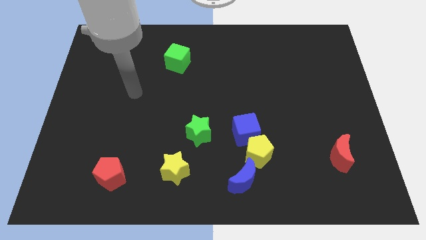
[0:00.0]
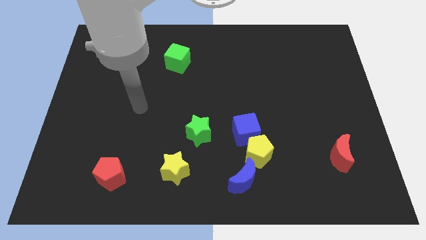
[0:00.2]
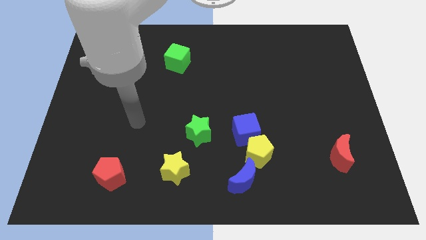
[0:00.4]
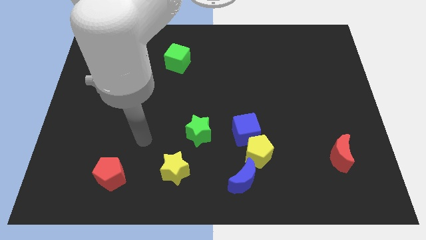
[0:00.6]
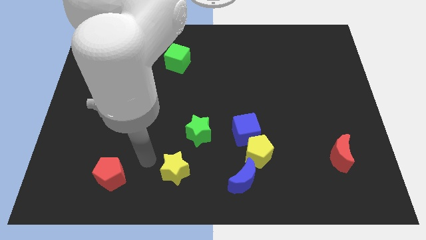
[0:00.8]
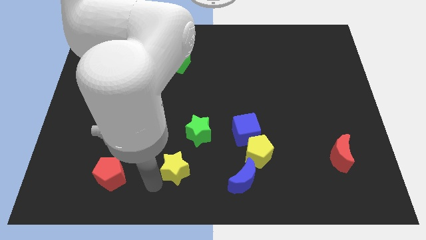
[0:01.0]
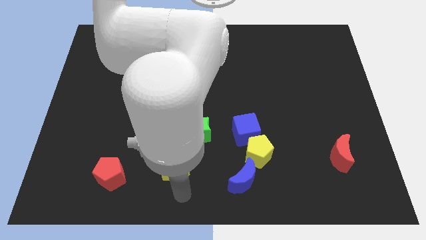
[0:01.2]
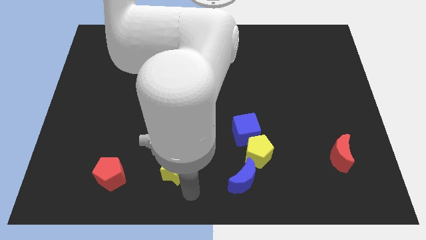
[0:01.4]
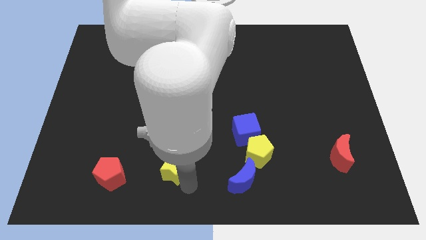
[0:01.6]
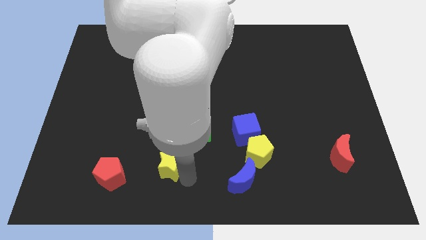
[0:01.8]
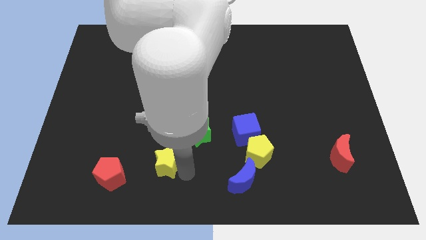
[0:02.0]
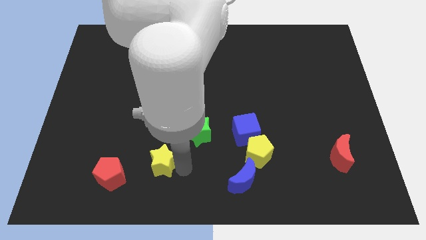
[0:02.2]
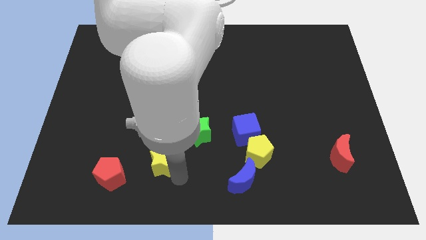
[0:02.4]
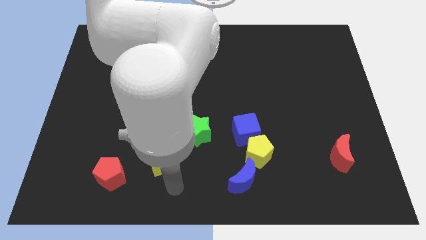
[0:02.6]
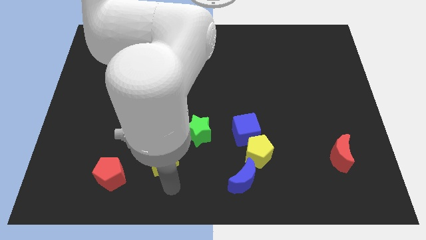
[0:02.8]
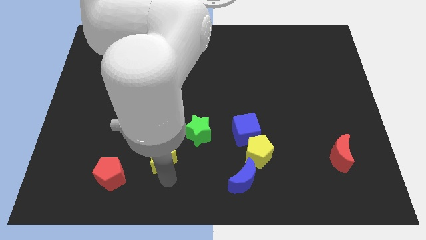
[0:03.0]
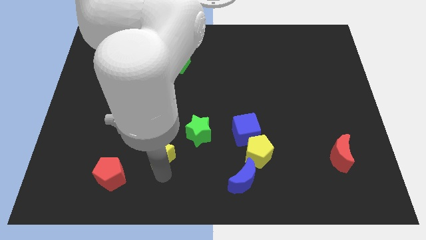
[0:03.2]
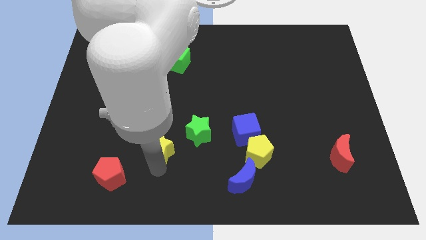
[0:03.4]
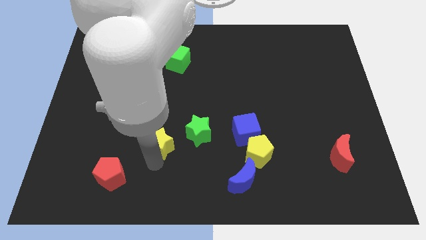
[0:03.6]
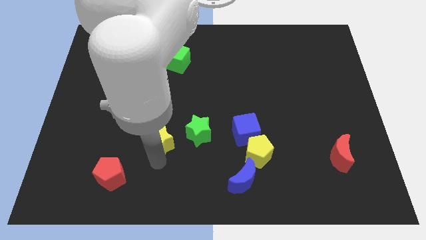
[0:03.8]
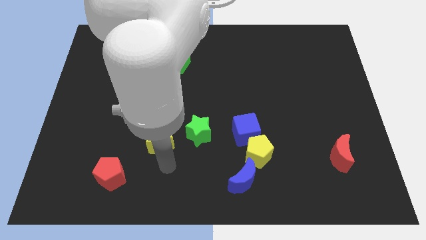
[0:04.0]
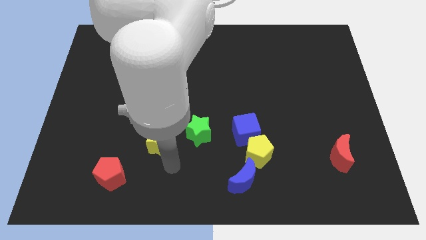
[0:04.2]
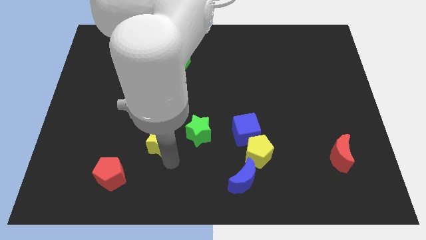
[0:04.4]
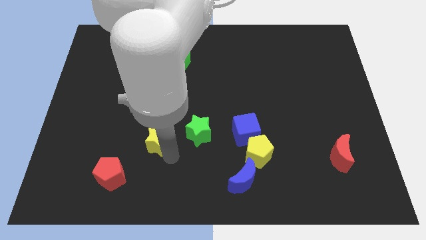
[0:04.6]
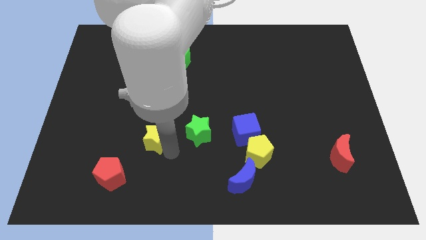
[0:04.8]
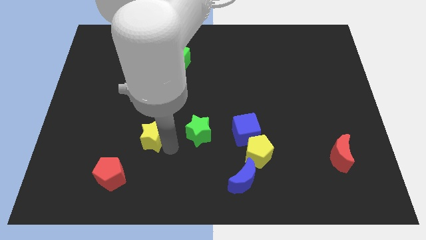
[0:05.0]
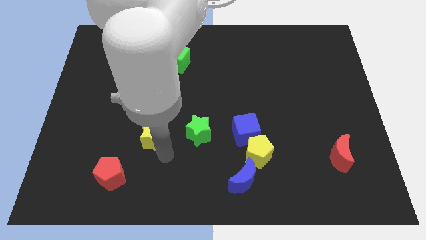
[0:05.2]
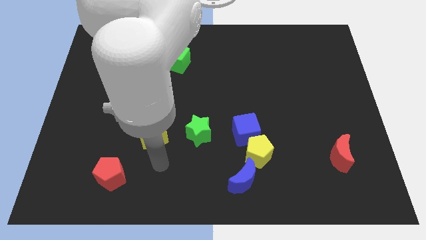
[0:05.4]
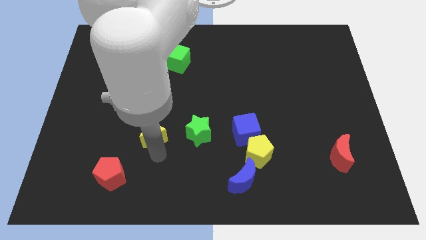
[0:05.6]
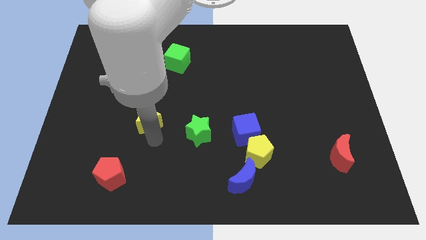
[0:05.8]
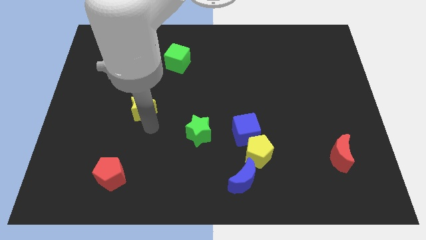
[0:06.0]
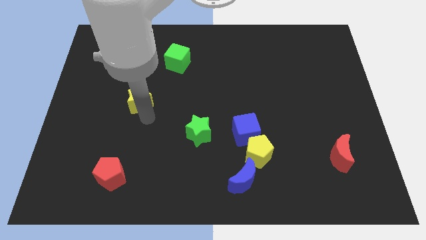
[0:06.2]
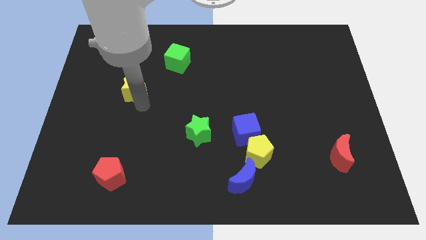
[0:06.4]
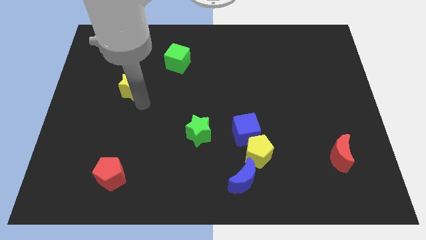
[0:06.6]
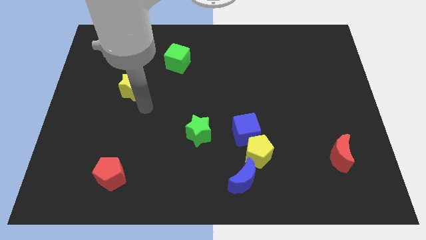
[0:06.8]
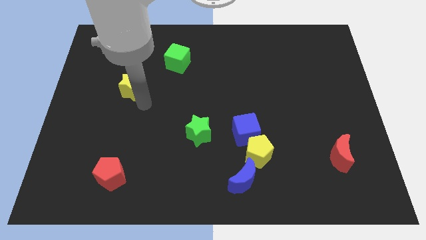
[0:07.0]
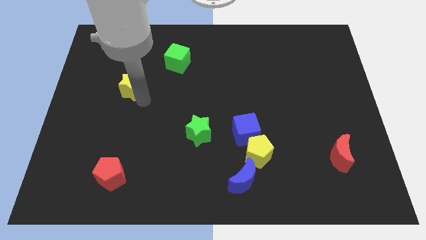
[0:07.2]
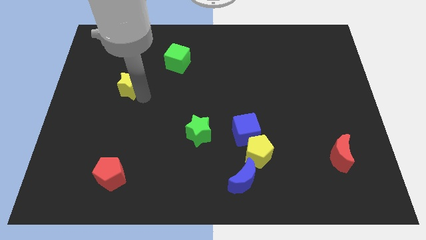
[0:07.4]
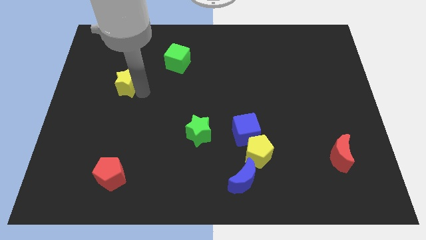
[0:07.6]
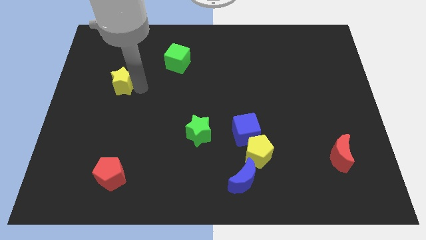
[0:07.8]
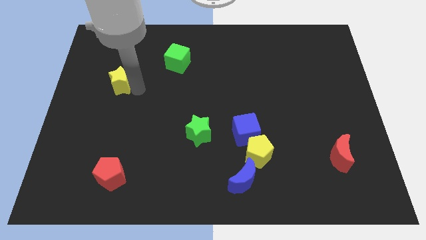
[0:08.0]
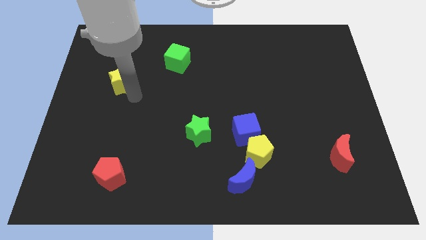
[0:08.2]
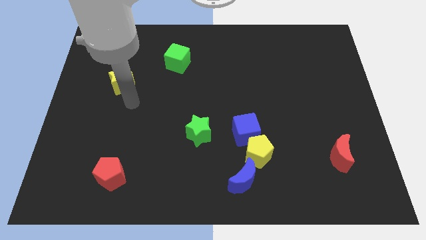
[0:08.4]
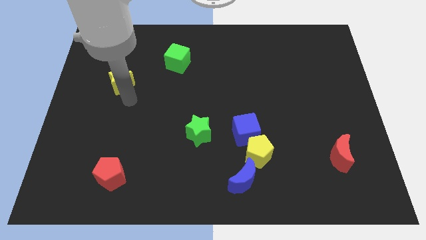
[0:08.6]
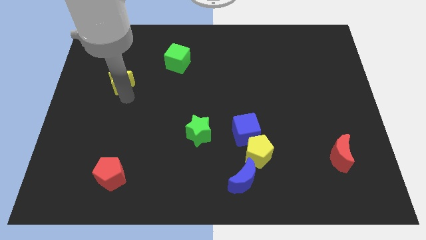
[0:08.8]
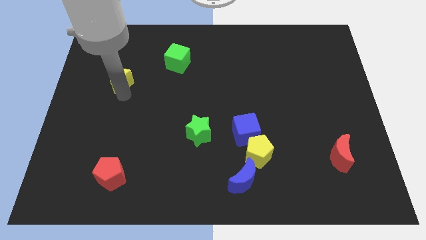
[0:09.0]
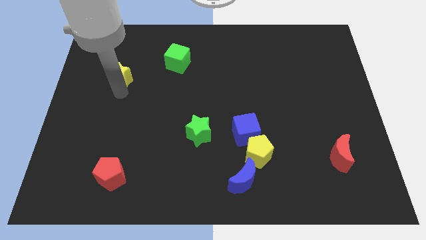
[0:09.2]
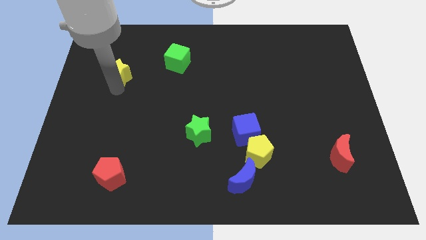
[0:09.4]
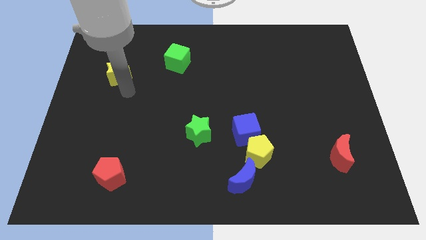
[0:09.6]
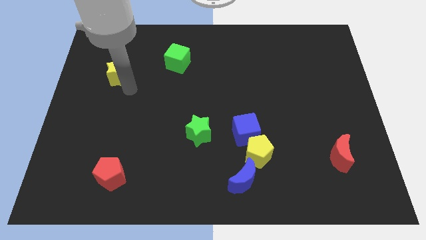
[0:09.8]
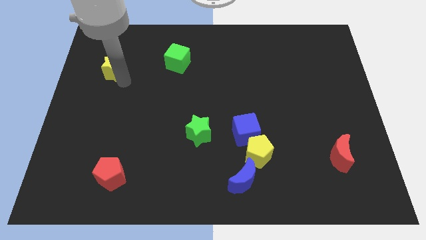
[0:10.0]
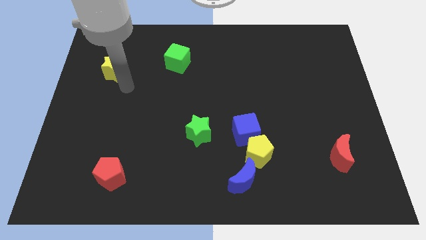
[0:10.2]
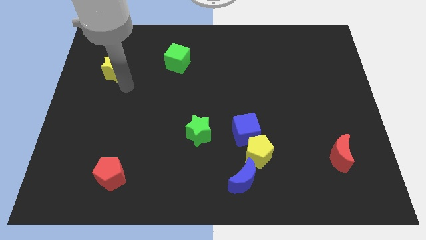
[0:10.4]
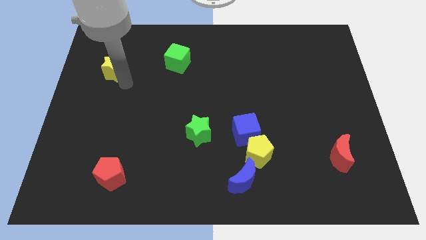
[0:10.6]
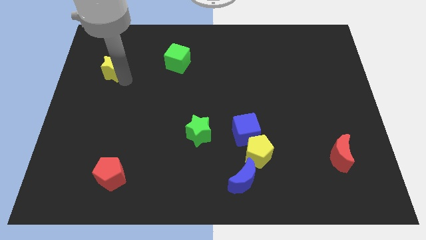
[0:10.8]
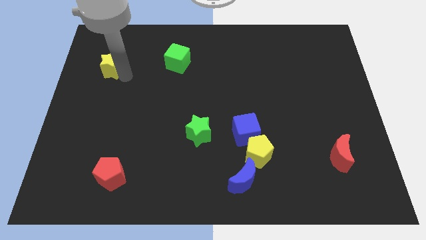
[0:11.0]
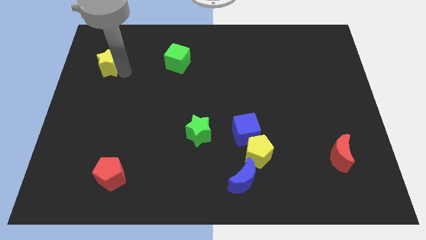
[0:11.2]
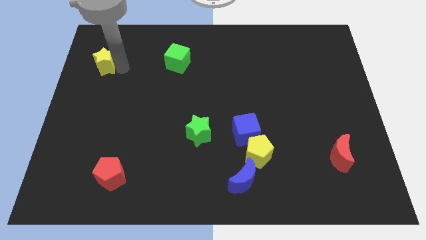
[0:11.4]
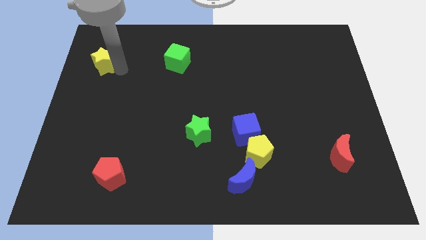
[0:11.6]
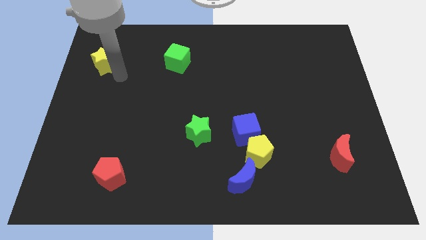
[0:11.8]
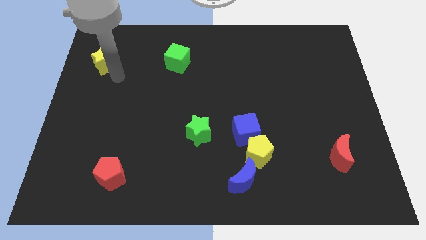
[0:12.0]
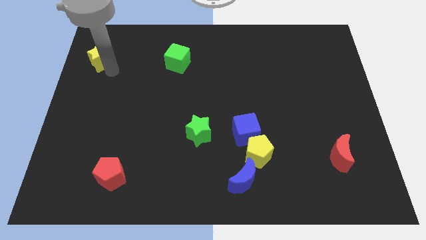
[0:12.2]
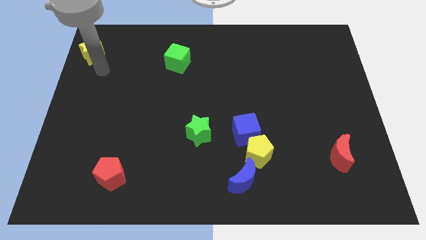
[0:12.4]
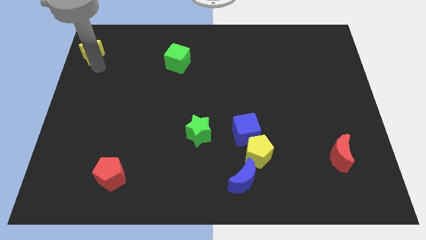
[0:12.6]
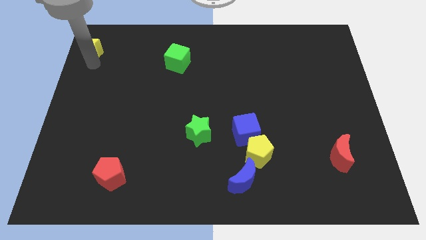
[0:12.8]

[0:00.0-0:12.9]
push the yellow star to the top left of the board
